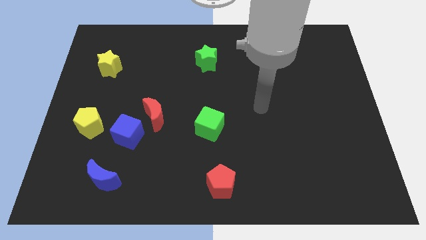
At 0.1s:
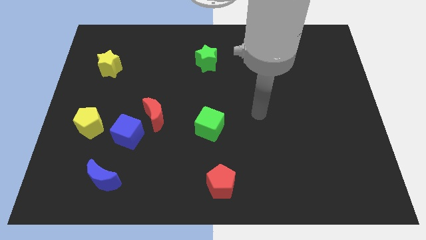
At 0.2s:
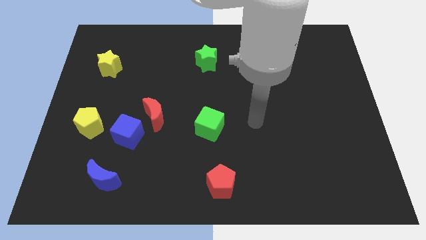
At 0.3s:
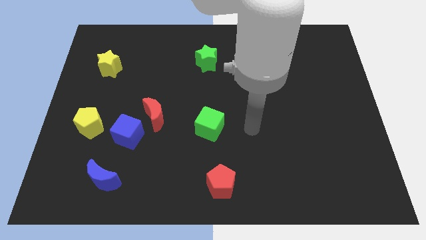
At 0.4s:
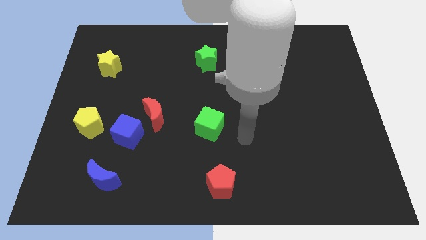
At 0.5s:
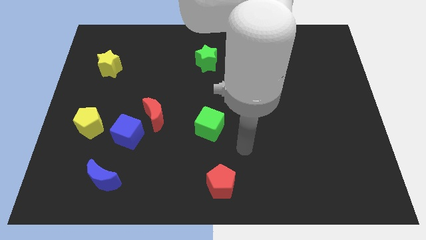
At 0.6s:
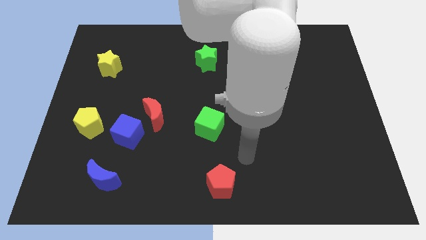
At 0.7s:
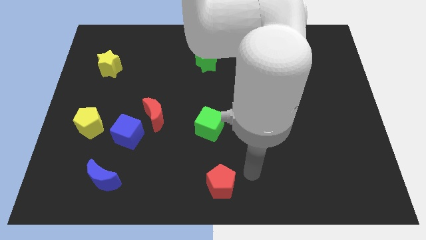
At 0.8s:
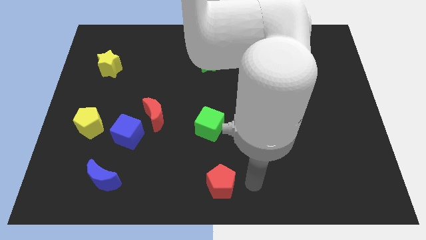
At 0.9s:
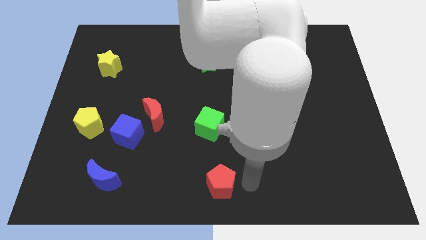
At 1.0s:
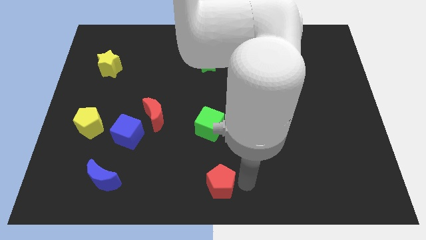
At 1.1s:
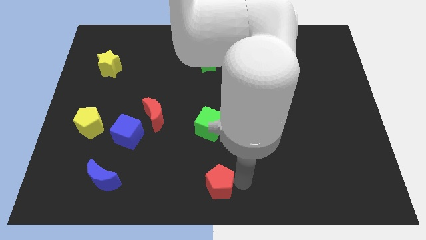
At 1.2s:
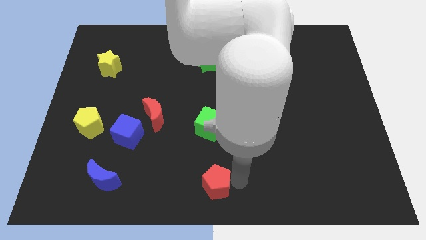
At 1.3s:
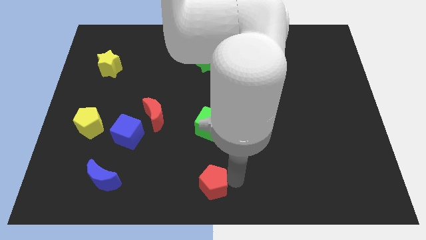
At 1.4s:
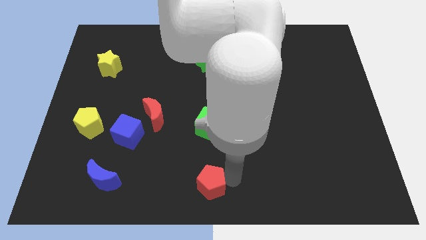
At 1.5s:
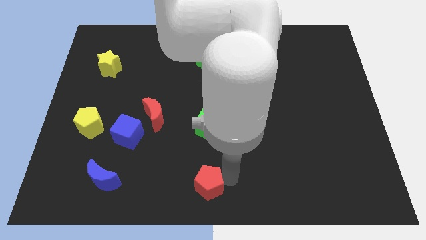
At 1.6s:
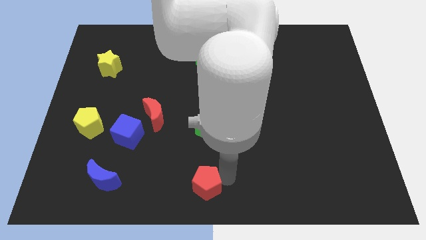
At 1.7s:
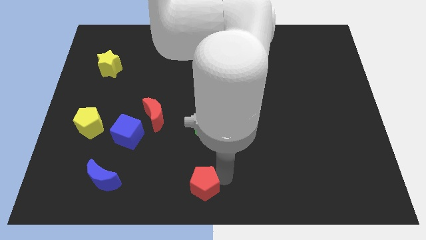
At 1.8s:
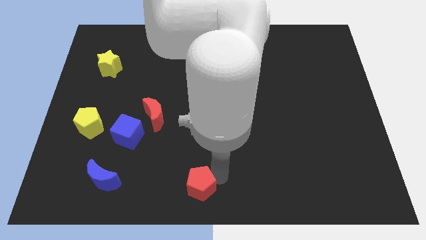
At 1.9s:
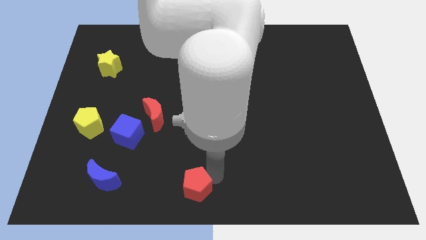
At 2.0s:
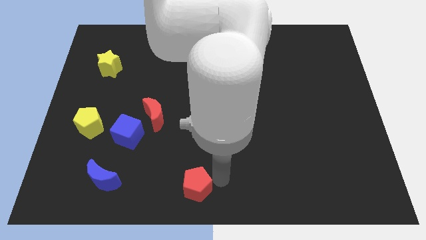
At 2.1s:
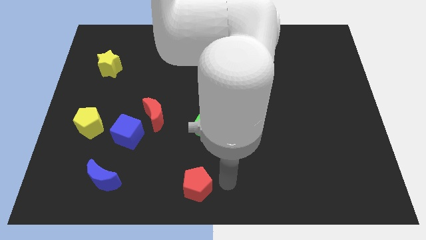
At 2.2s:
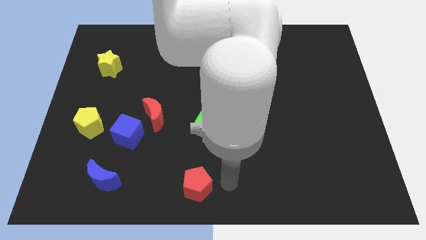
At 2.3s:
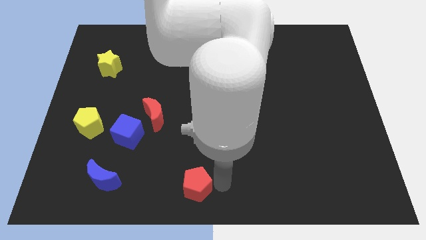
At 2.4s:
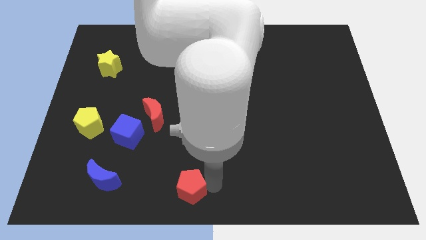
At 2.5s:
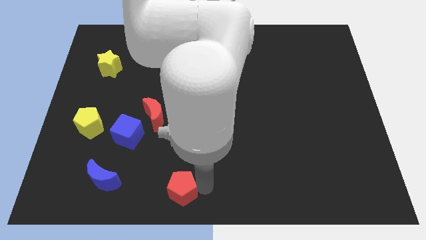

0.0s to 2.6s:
push the red pentagon left somewhat

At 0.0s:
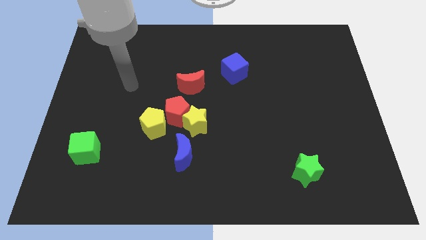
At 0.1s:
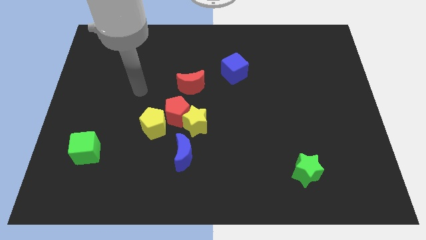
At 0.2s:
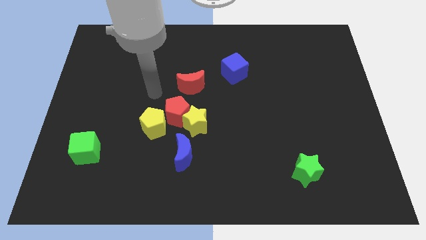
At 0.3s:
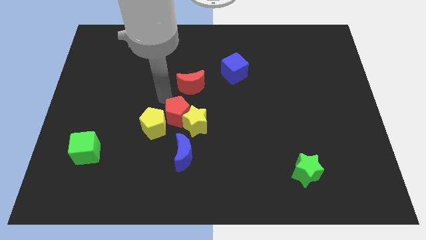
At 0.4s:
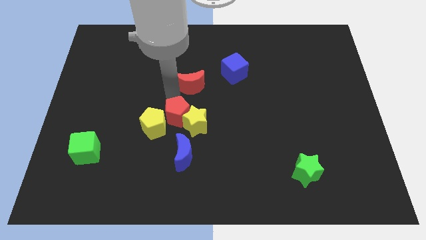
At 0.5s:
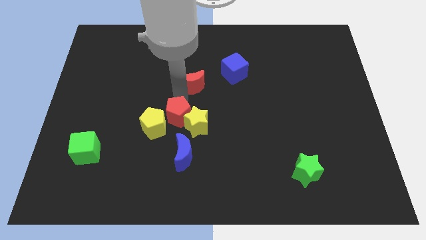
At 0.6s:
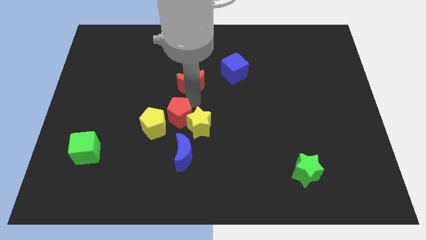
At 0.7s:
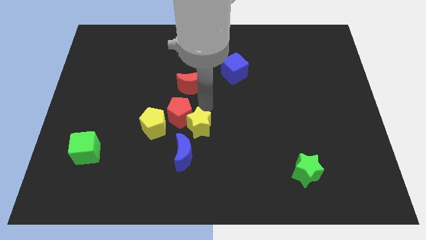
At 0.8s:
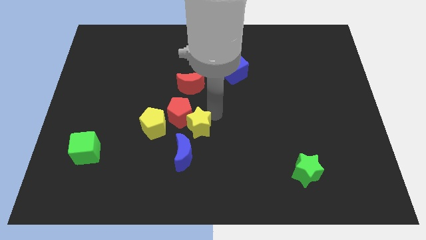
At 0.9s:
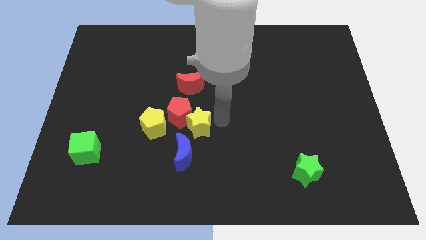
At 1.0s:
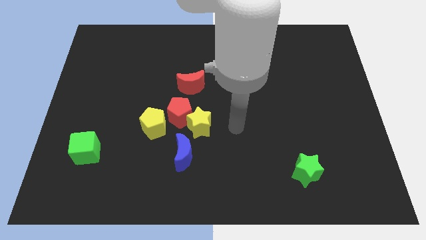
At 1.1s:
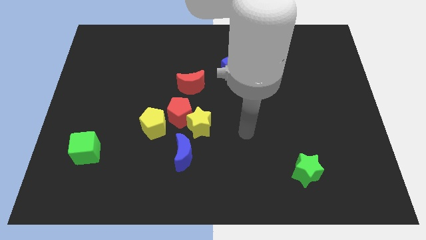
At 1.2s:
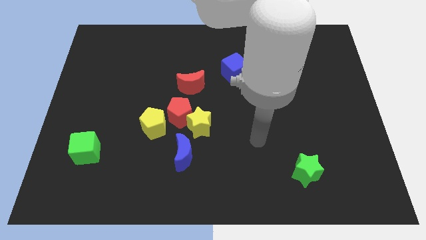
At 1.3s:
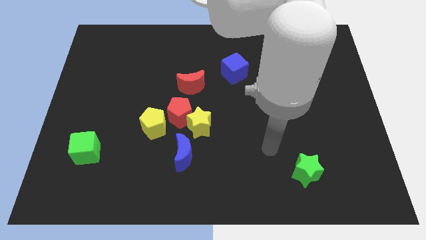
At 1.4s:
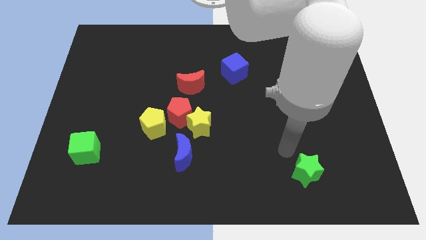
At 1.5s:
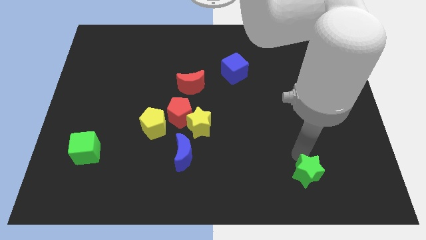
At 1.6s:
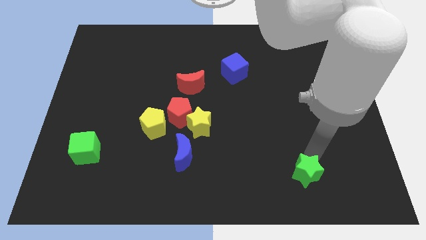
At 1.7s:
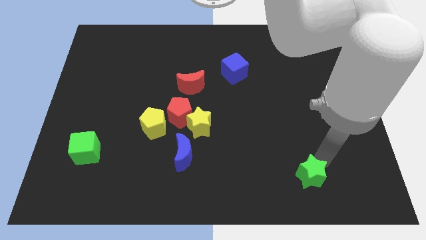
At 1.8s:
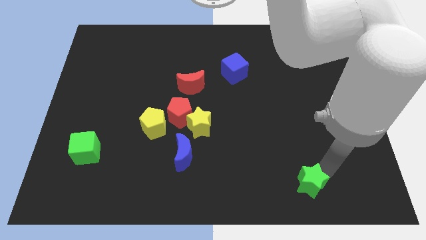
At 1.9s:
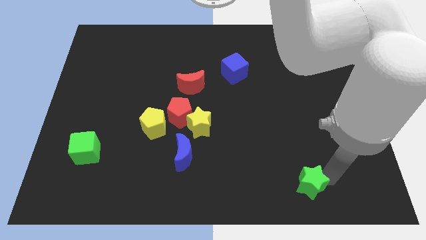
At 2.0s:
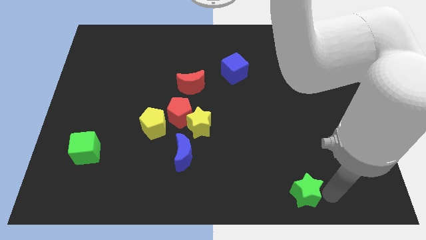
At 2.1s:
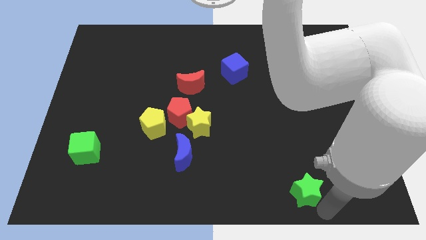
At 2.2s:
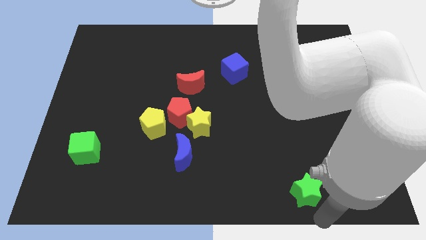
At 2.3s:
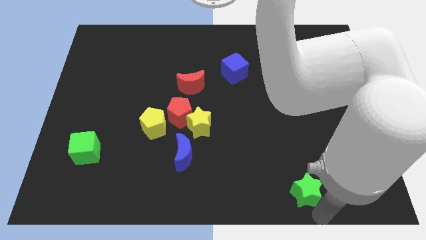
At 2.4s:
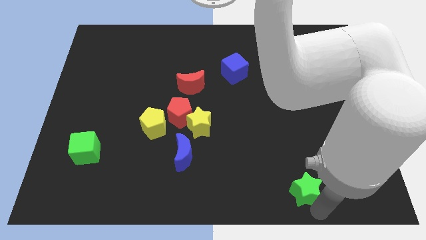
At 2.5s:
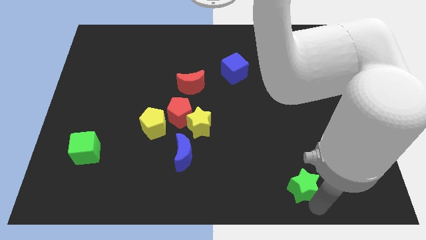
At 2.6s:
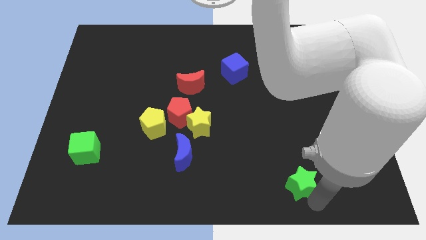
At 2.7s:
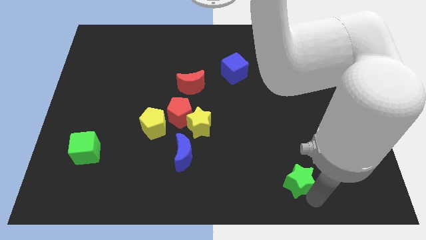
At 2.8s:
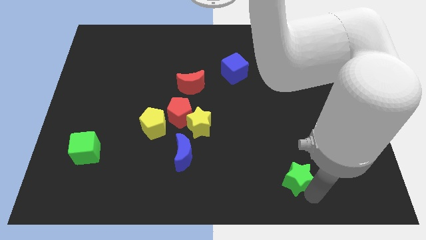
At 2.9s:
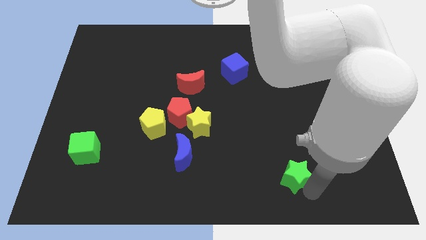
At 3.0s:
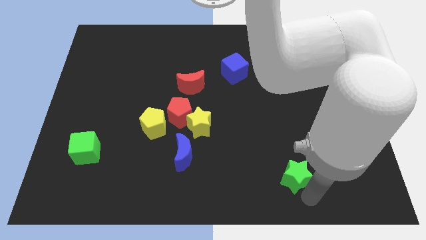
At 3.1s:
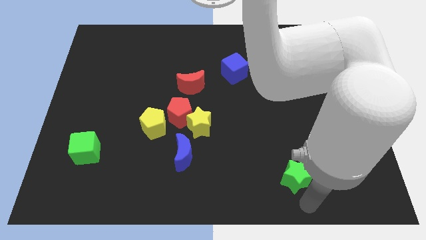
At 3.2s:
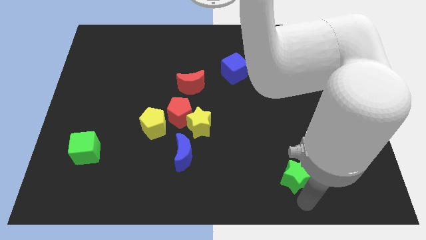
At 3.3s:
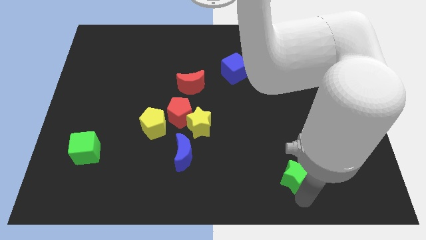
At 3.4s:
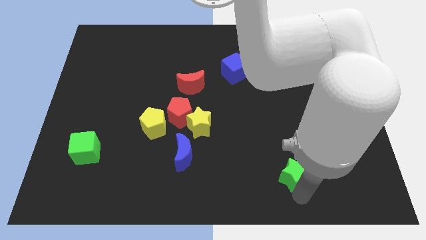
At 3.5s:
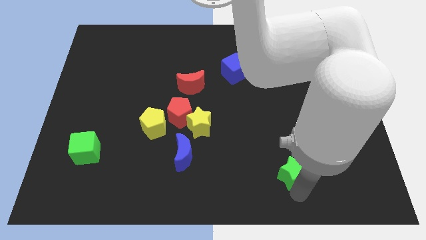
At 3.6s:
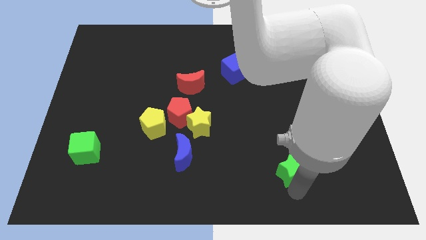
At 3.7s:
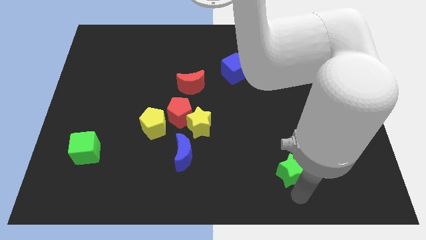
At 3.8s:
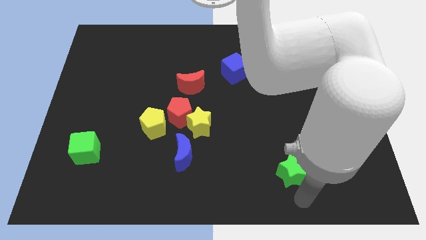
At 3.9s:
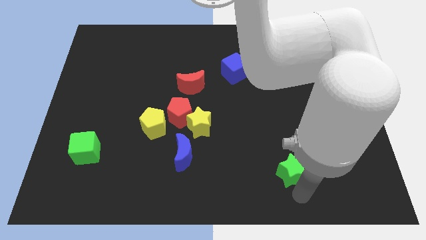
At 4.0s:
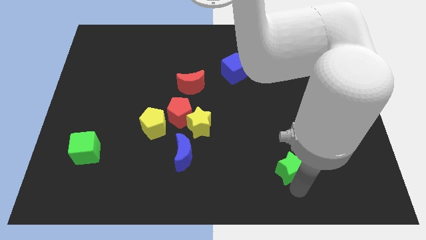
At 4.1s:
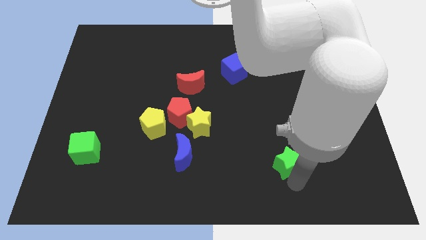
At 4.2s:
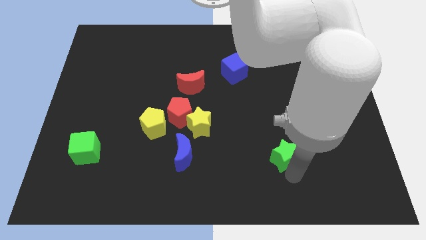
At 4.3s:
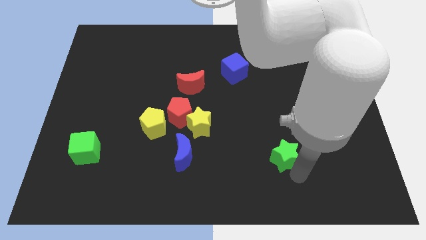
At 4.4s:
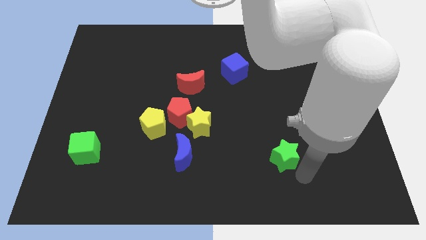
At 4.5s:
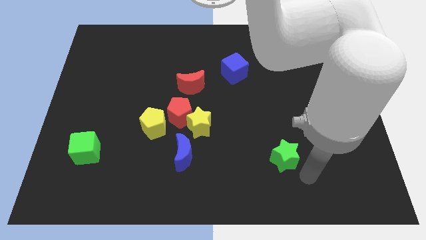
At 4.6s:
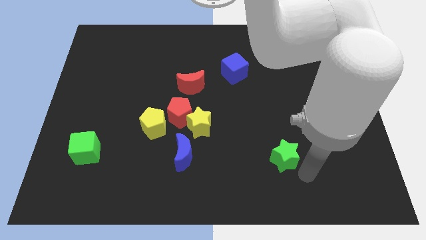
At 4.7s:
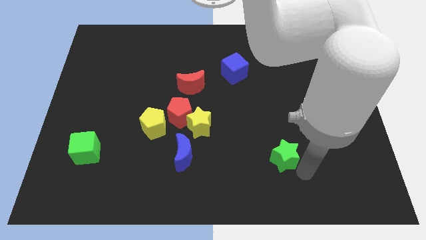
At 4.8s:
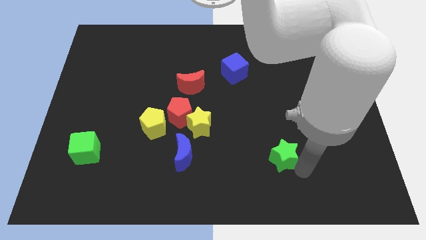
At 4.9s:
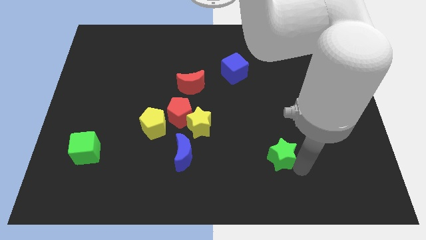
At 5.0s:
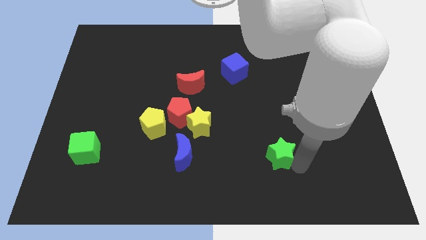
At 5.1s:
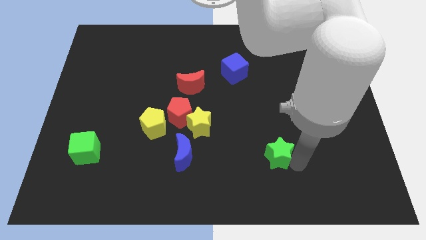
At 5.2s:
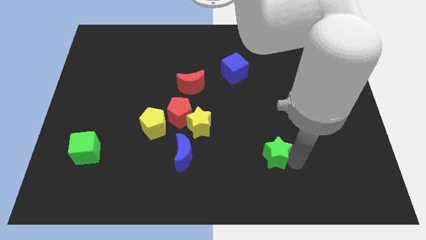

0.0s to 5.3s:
push the green star up and left diagonally somewhat
